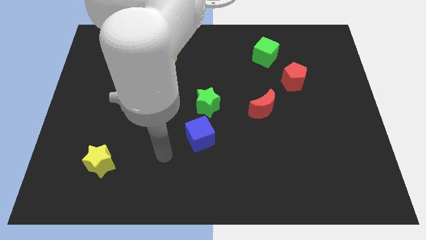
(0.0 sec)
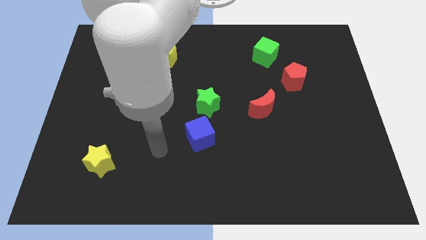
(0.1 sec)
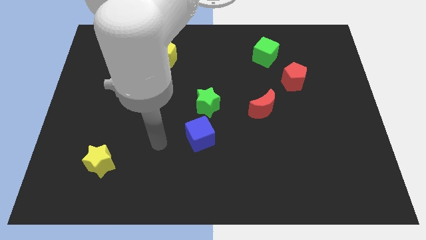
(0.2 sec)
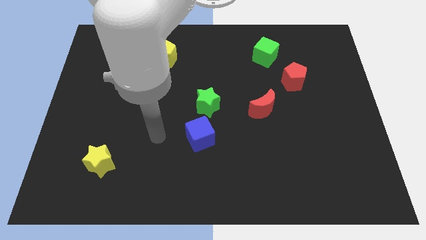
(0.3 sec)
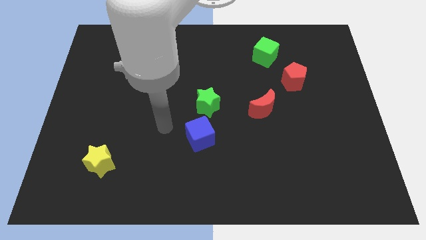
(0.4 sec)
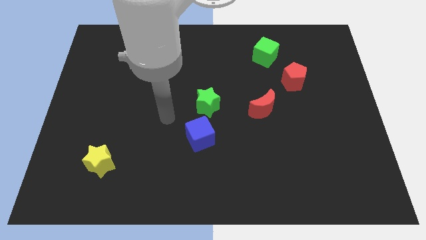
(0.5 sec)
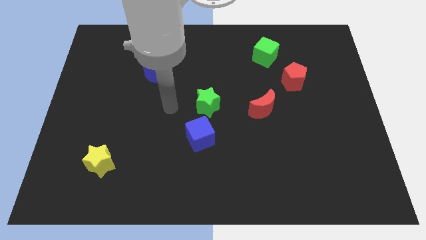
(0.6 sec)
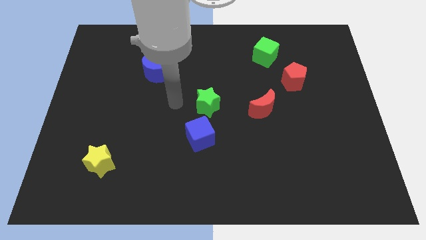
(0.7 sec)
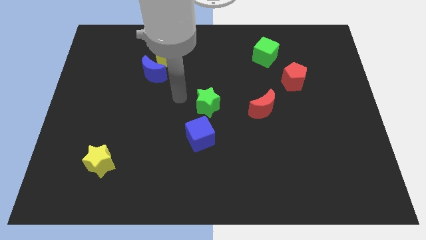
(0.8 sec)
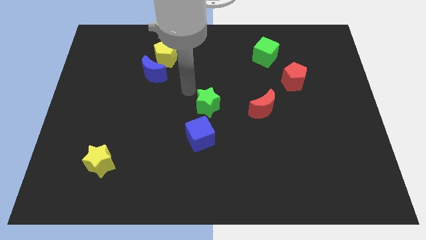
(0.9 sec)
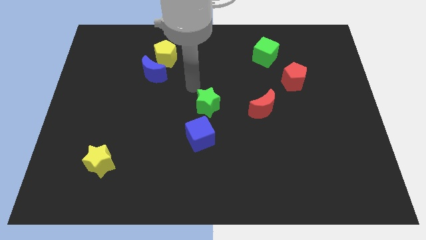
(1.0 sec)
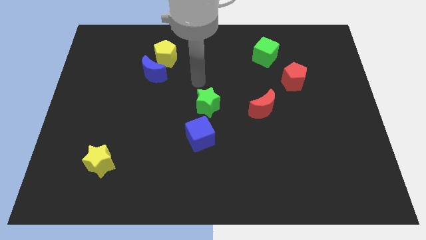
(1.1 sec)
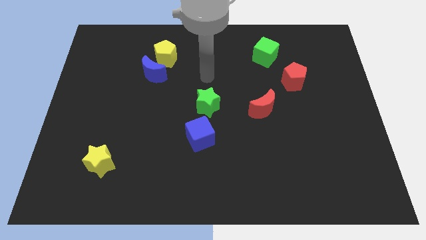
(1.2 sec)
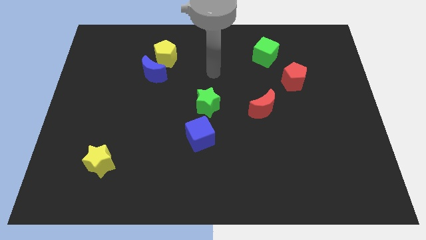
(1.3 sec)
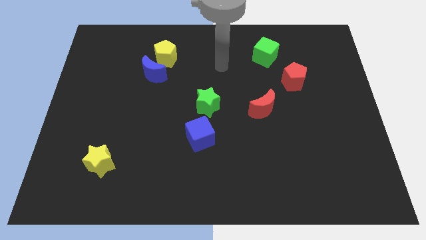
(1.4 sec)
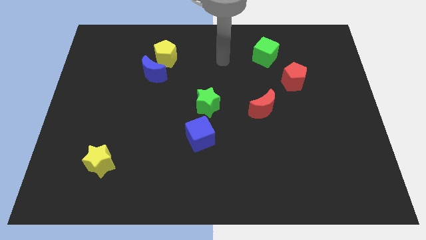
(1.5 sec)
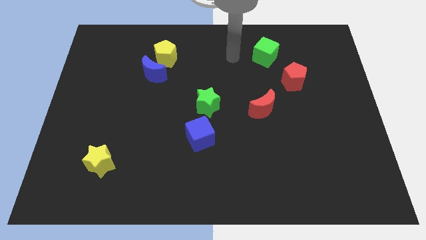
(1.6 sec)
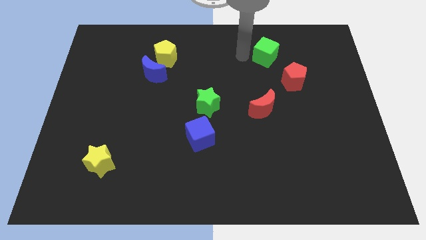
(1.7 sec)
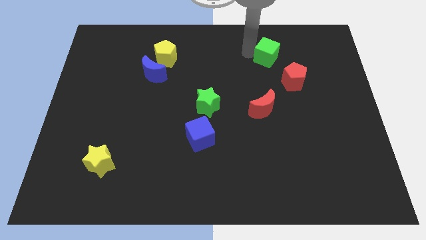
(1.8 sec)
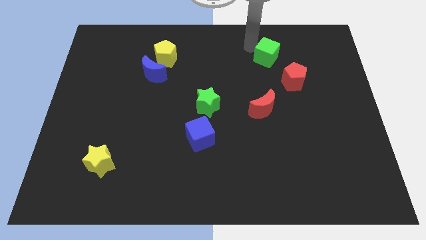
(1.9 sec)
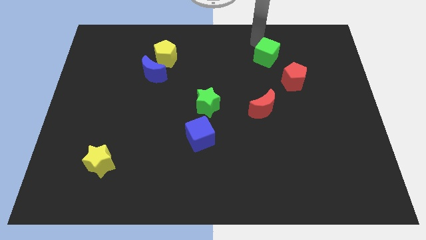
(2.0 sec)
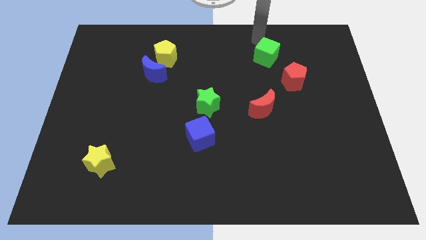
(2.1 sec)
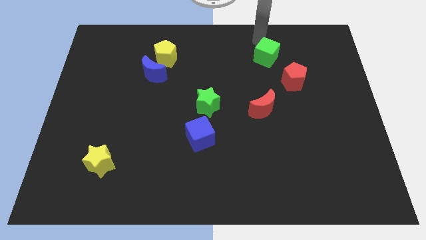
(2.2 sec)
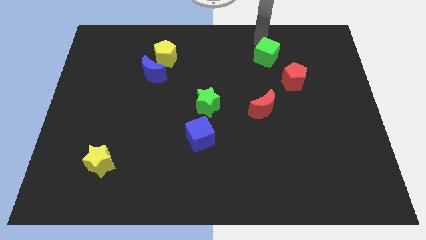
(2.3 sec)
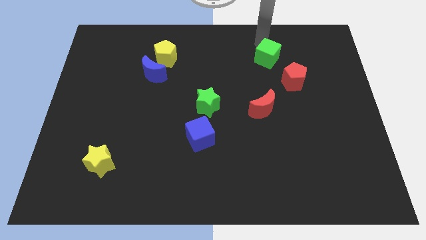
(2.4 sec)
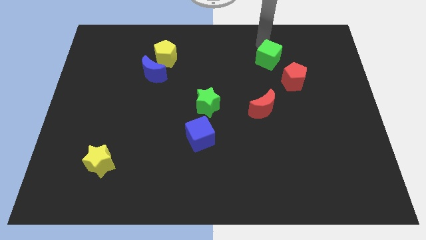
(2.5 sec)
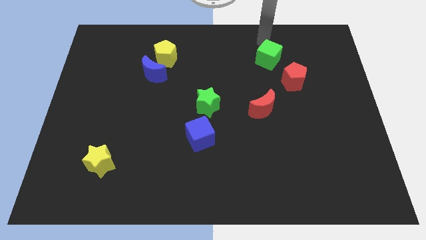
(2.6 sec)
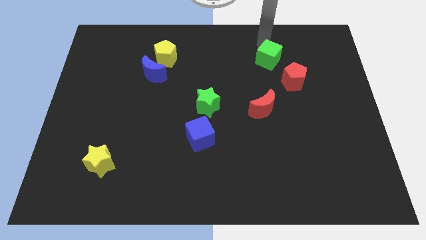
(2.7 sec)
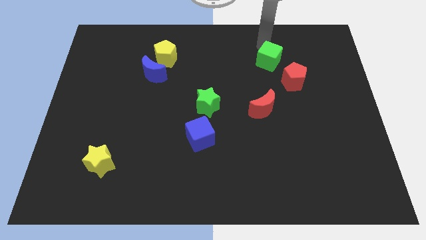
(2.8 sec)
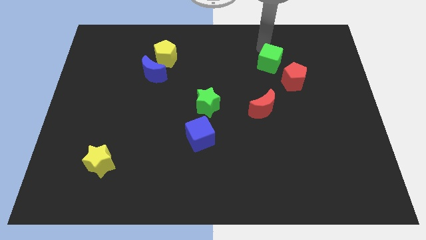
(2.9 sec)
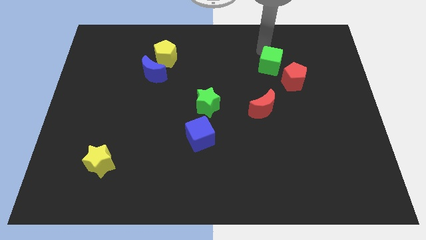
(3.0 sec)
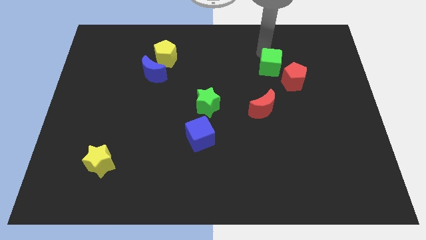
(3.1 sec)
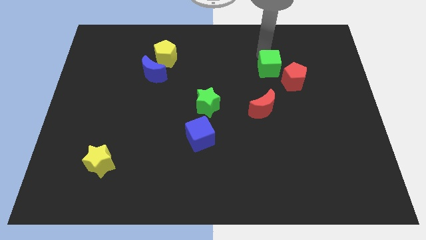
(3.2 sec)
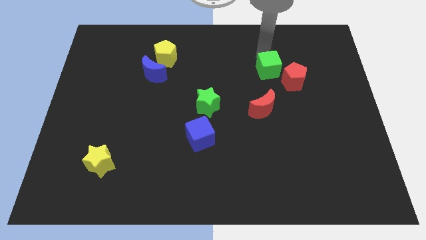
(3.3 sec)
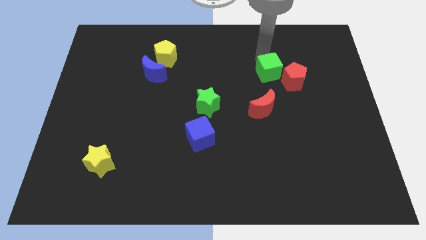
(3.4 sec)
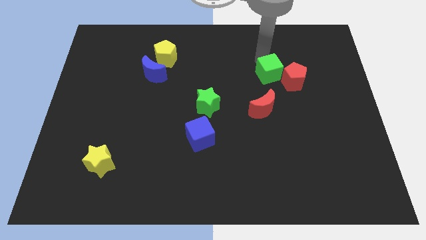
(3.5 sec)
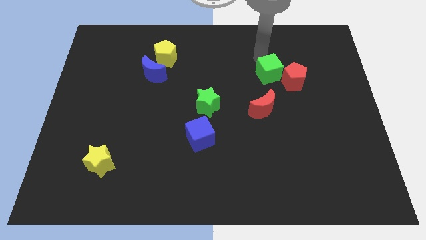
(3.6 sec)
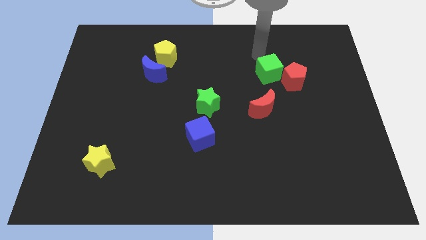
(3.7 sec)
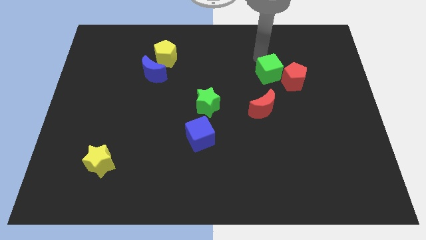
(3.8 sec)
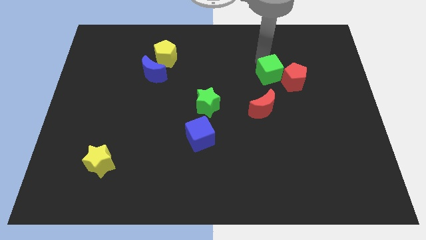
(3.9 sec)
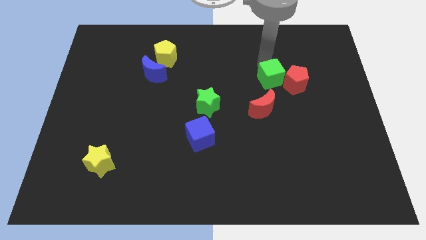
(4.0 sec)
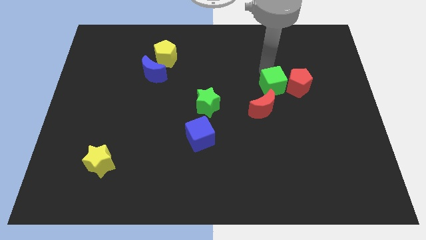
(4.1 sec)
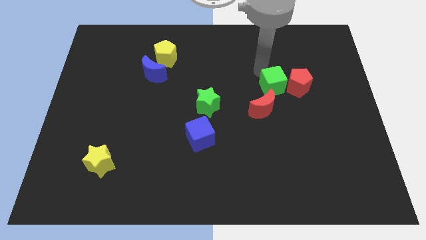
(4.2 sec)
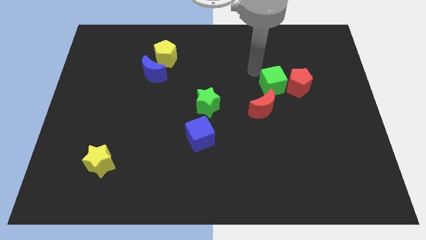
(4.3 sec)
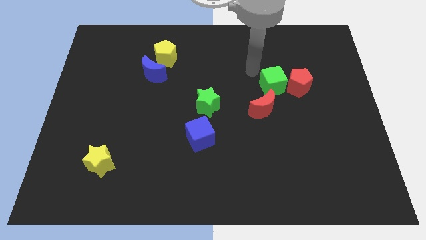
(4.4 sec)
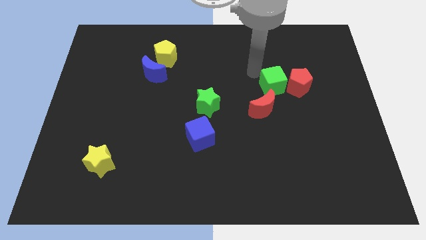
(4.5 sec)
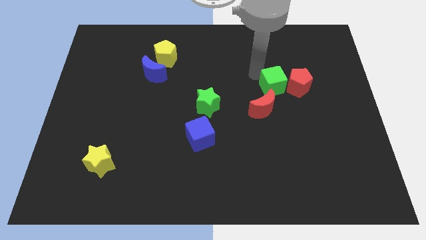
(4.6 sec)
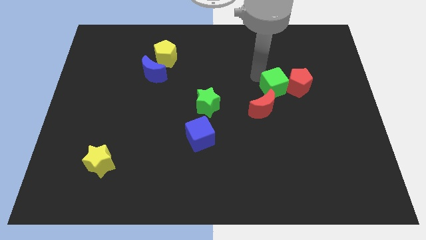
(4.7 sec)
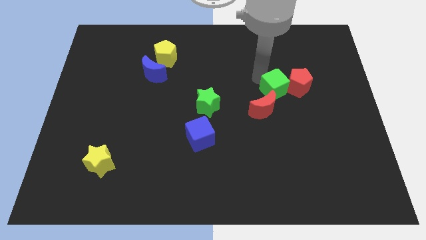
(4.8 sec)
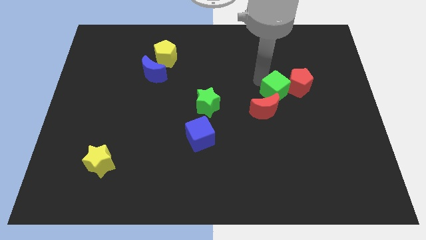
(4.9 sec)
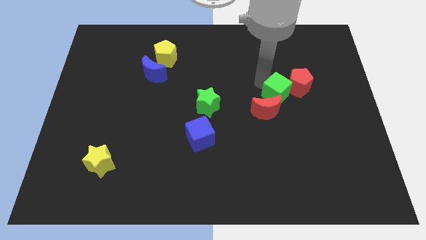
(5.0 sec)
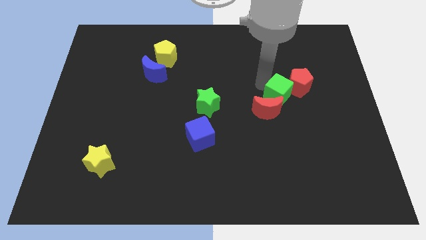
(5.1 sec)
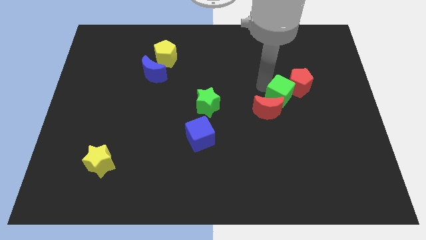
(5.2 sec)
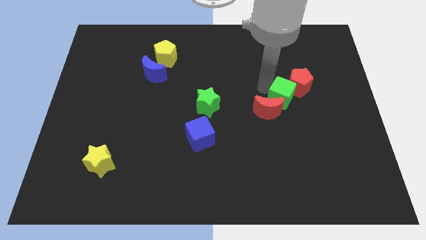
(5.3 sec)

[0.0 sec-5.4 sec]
move the green cube to the right of the red moon

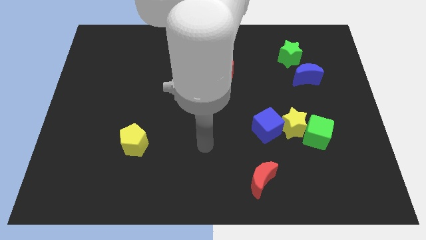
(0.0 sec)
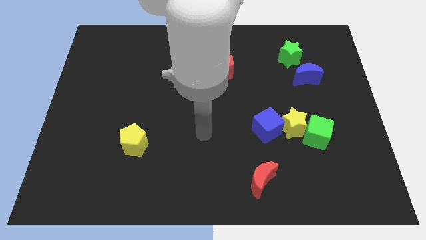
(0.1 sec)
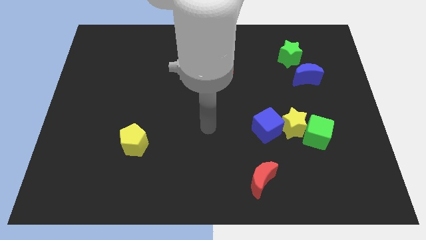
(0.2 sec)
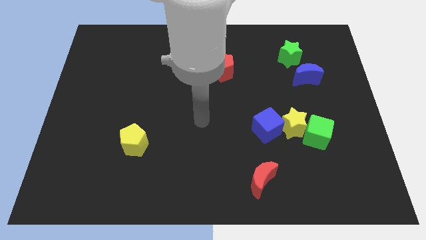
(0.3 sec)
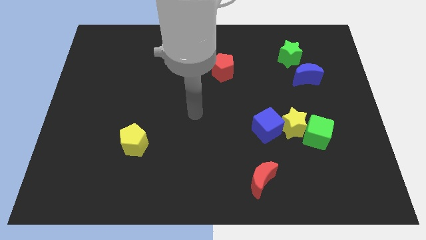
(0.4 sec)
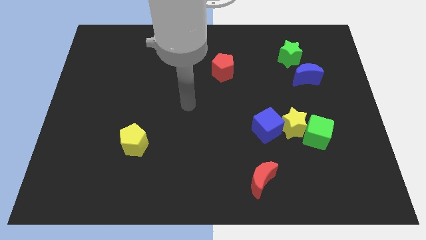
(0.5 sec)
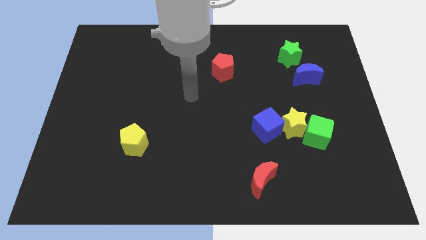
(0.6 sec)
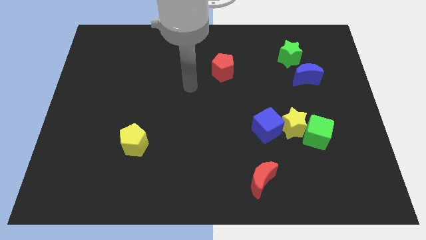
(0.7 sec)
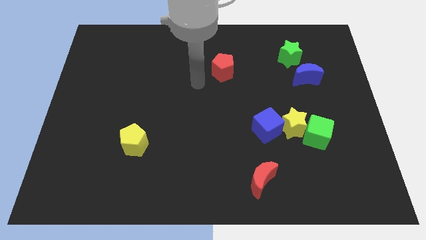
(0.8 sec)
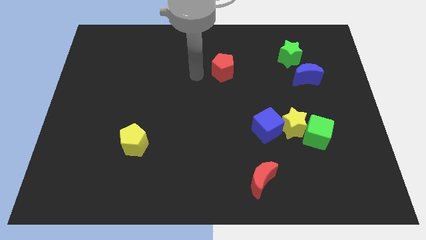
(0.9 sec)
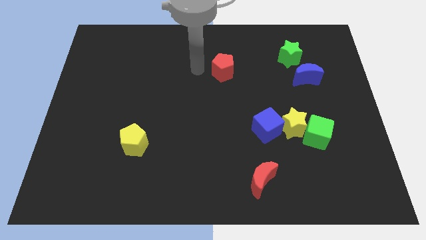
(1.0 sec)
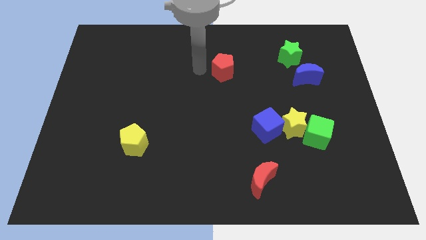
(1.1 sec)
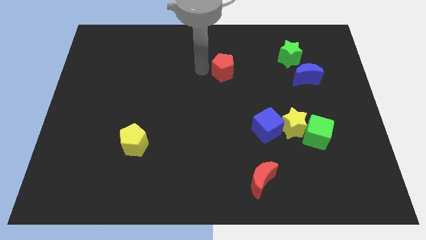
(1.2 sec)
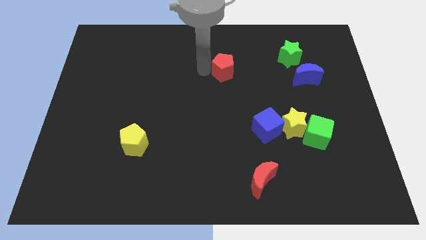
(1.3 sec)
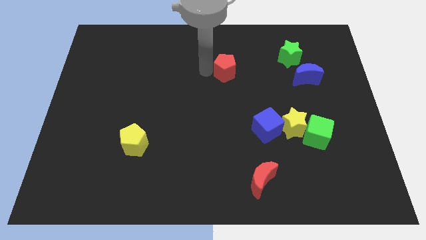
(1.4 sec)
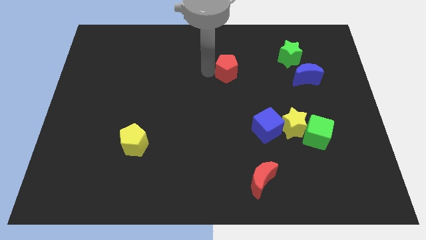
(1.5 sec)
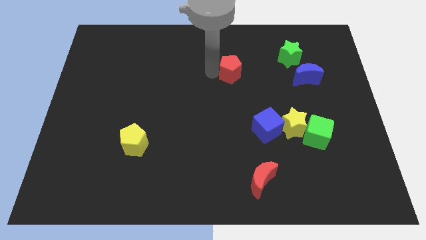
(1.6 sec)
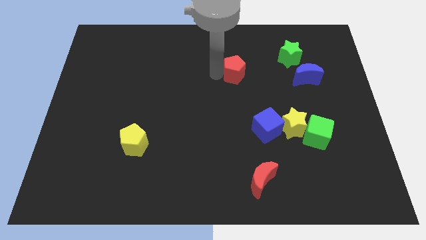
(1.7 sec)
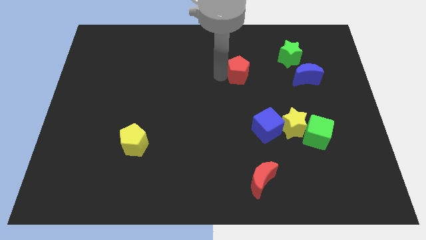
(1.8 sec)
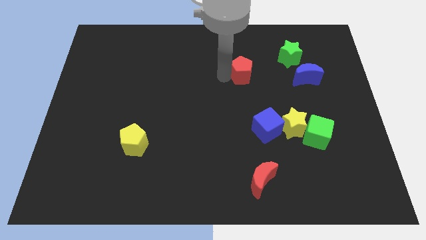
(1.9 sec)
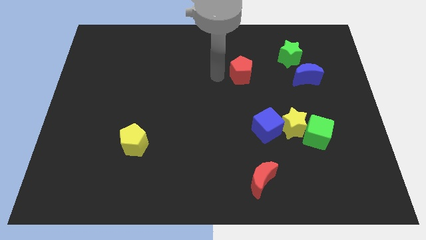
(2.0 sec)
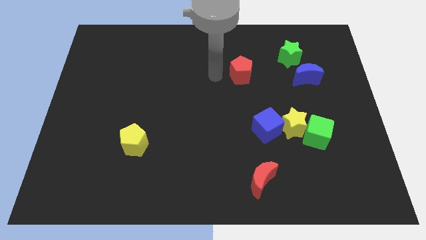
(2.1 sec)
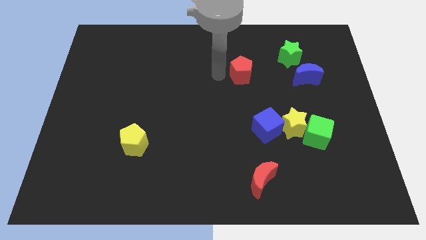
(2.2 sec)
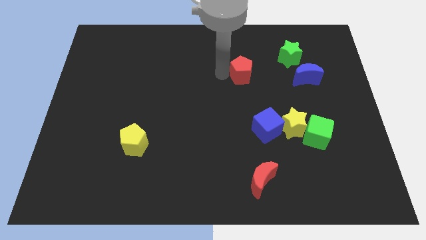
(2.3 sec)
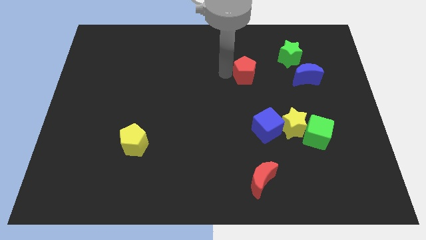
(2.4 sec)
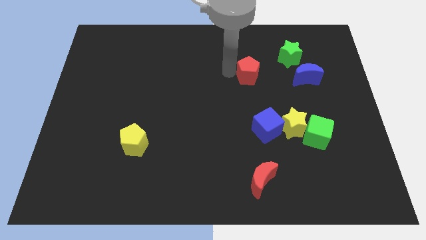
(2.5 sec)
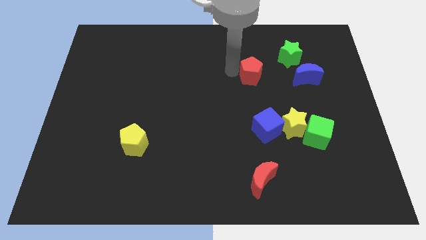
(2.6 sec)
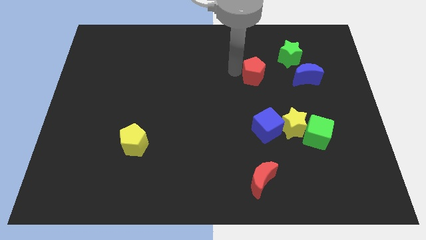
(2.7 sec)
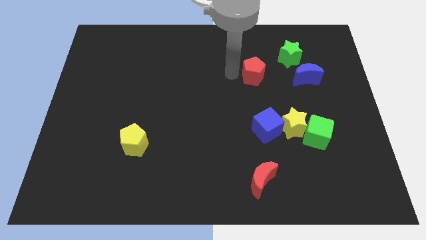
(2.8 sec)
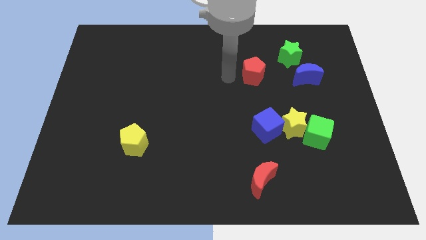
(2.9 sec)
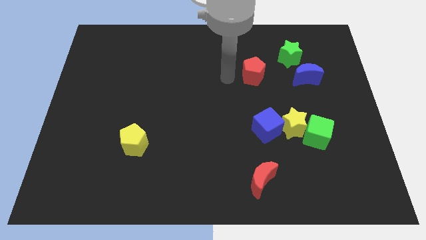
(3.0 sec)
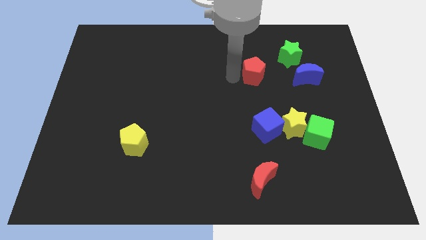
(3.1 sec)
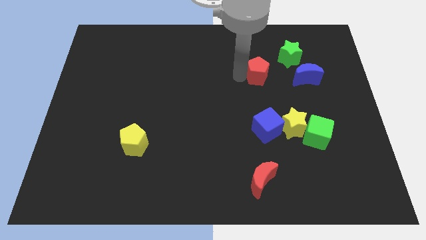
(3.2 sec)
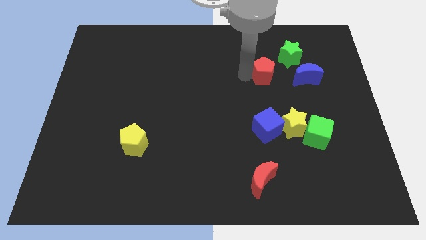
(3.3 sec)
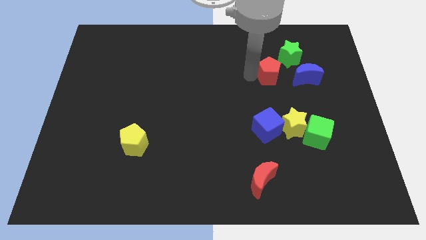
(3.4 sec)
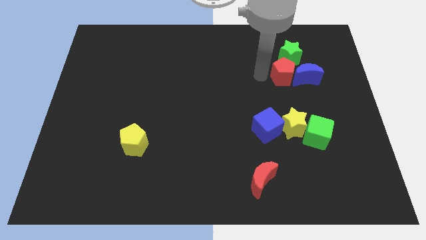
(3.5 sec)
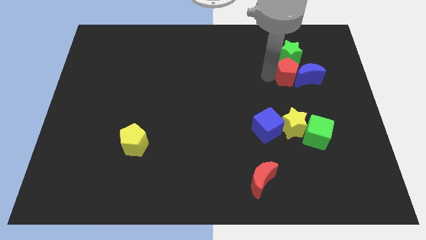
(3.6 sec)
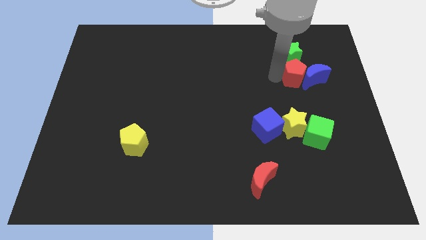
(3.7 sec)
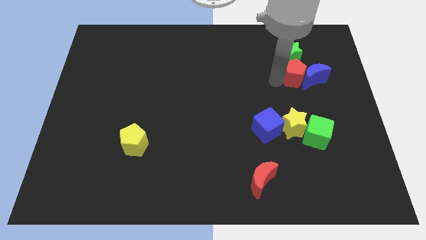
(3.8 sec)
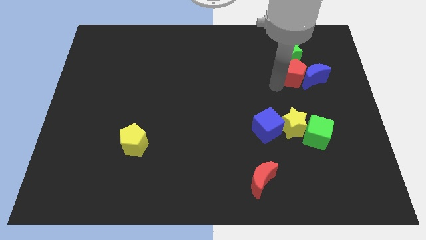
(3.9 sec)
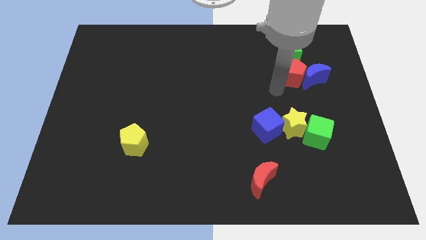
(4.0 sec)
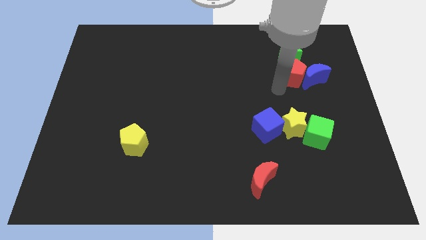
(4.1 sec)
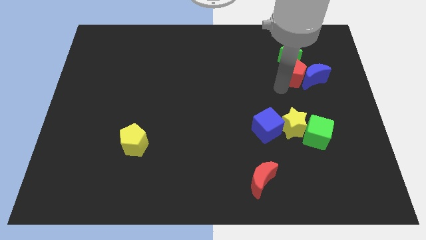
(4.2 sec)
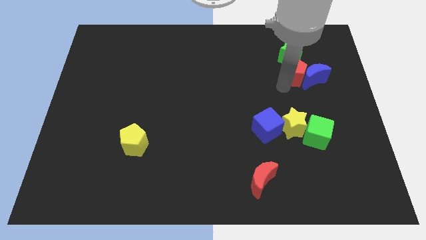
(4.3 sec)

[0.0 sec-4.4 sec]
push the red pentagon to the bottom right of the green star
